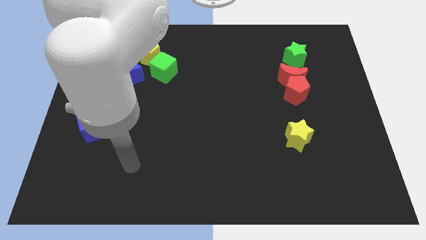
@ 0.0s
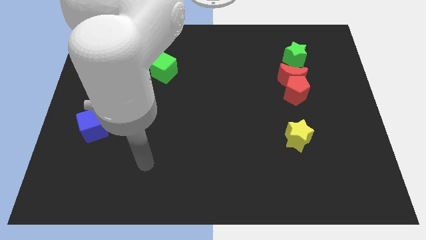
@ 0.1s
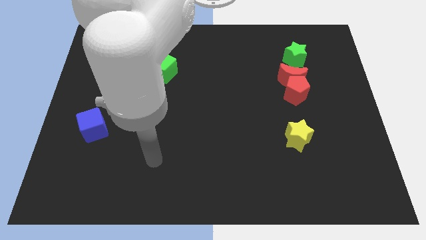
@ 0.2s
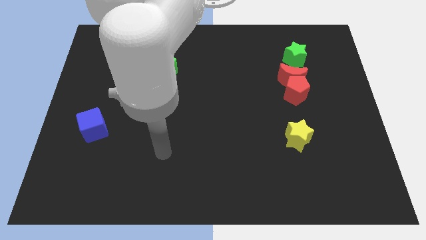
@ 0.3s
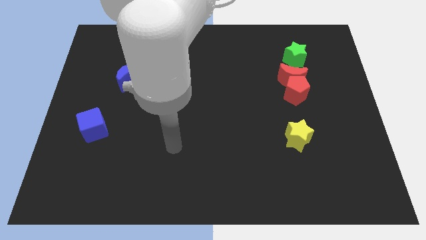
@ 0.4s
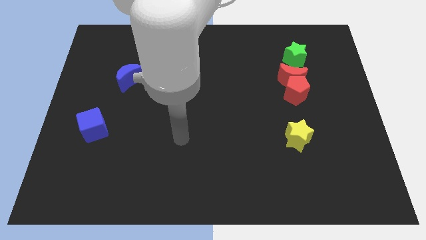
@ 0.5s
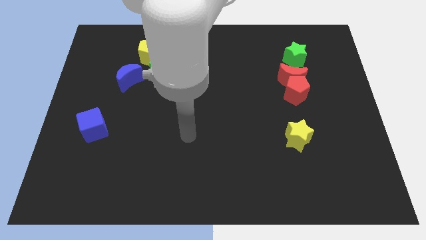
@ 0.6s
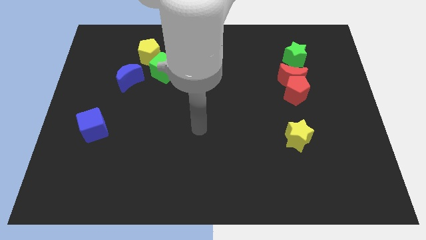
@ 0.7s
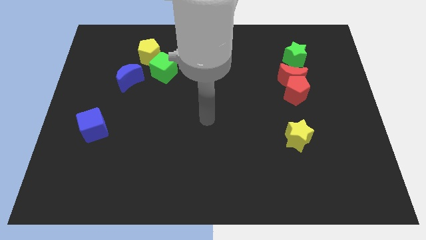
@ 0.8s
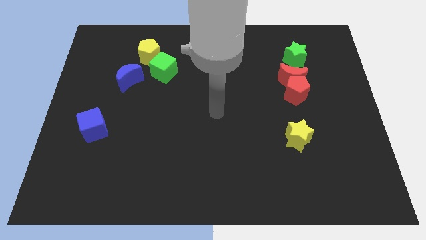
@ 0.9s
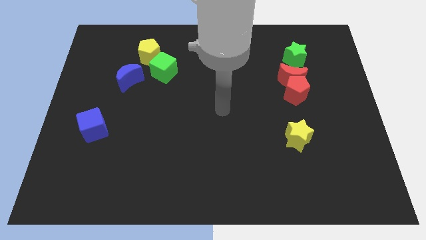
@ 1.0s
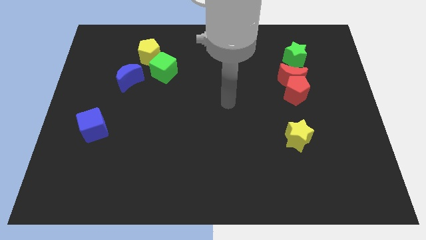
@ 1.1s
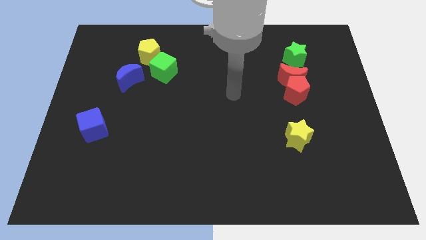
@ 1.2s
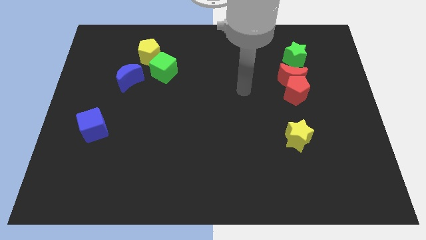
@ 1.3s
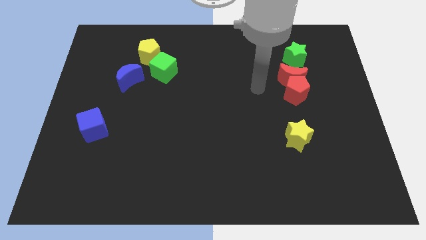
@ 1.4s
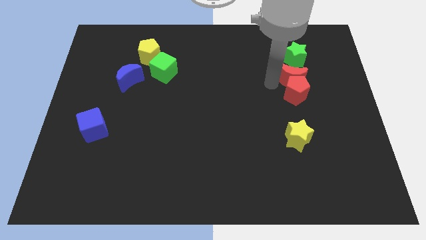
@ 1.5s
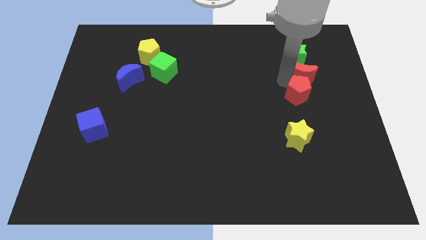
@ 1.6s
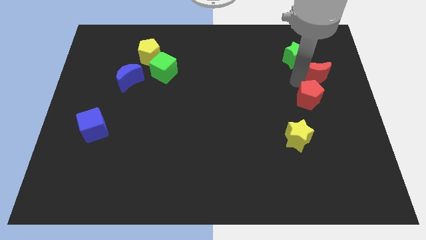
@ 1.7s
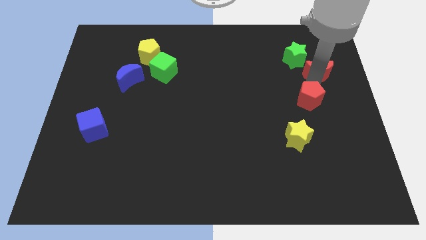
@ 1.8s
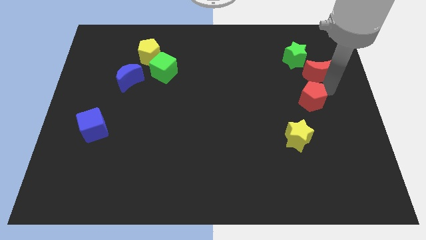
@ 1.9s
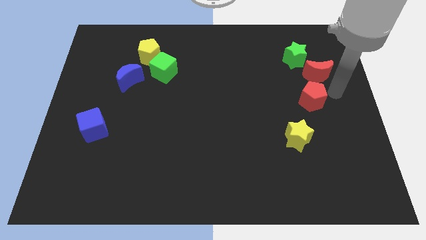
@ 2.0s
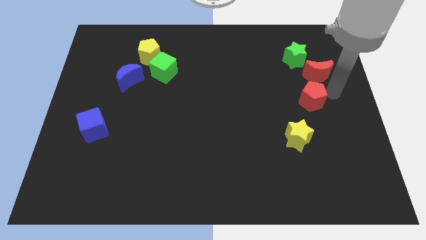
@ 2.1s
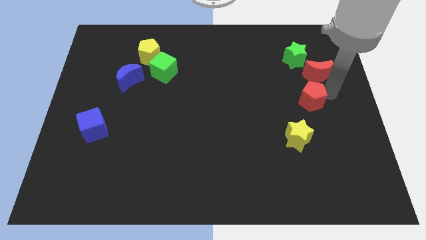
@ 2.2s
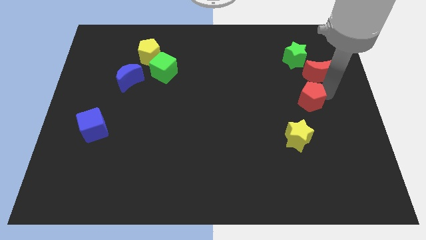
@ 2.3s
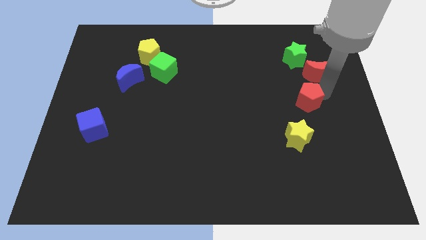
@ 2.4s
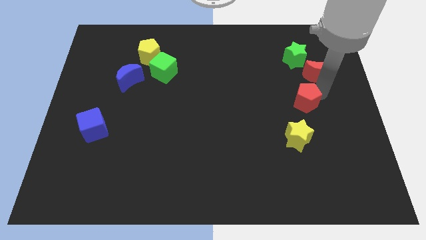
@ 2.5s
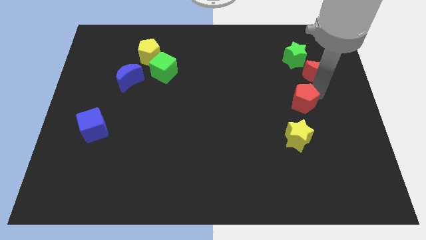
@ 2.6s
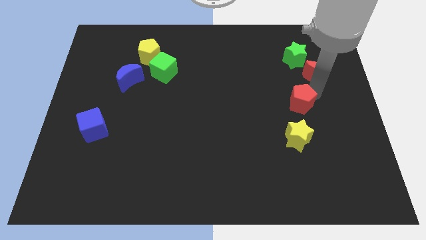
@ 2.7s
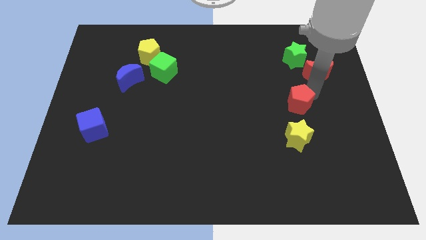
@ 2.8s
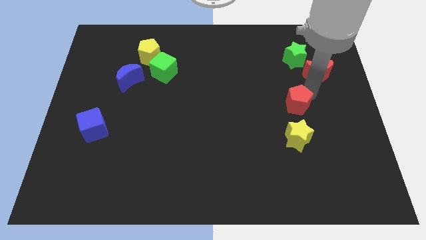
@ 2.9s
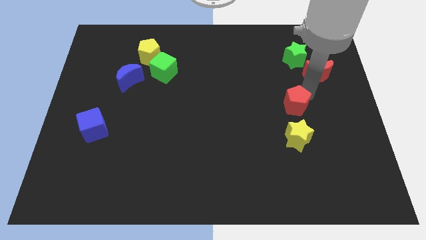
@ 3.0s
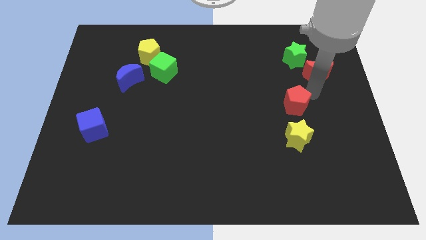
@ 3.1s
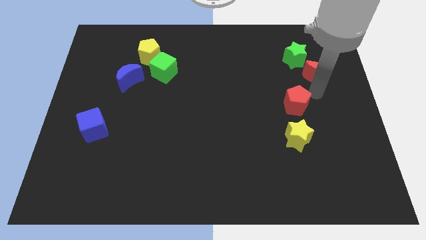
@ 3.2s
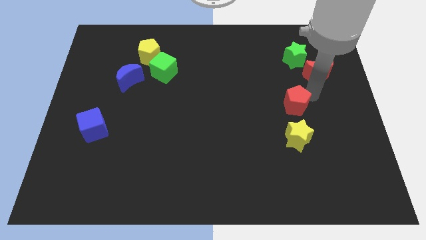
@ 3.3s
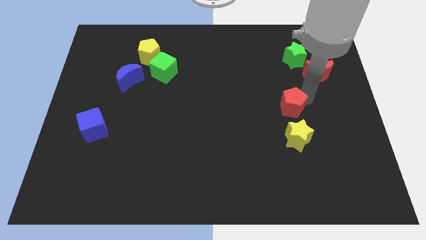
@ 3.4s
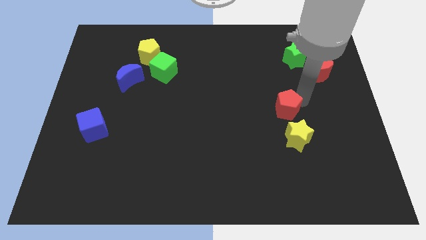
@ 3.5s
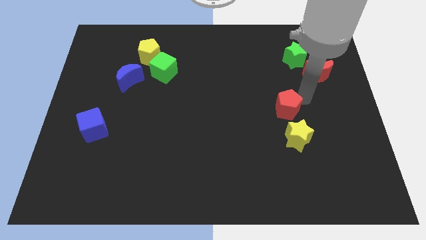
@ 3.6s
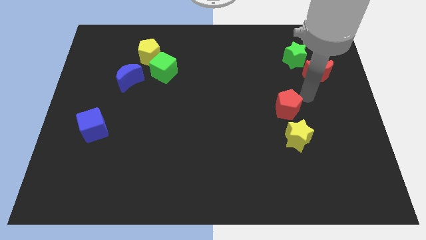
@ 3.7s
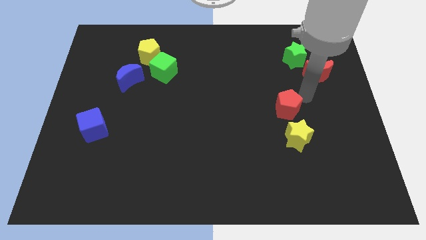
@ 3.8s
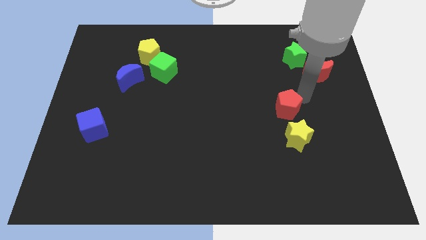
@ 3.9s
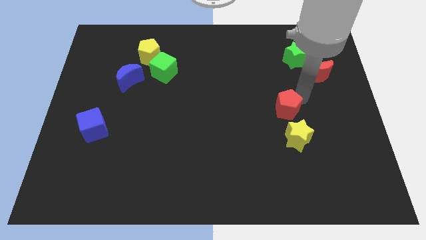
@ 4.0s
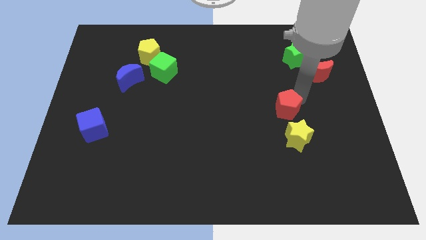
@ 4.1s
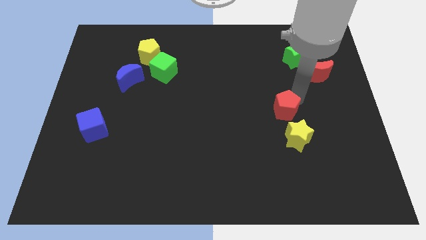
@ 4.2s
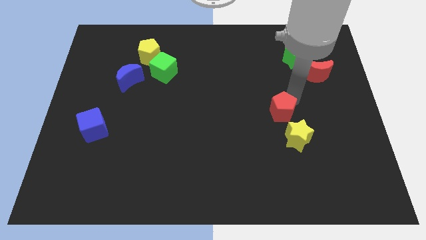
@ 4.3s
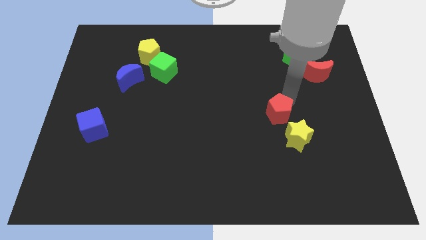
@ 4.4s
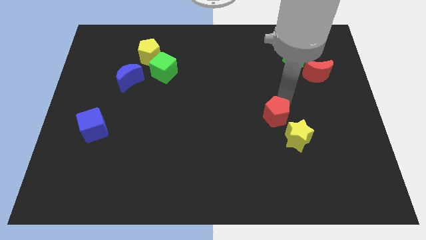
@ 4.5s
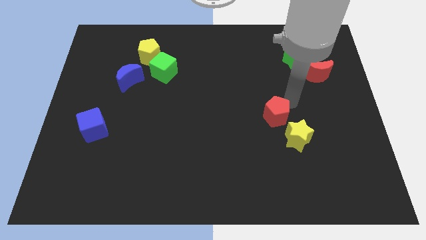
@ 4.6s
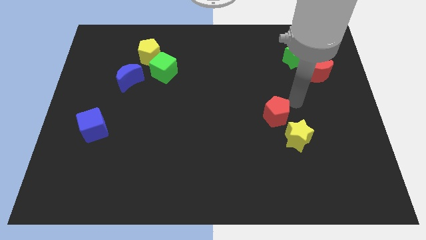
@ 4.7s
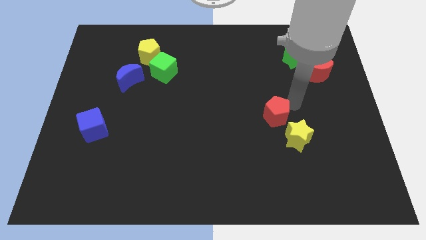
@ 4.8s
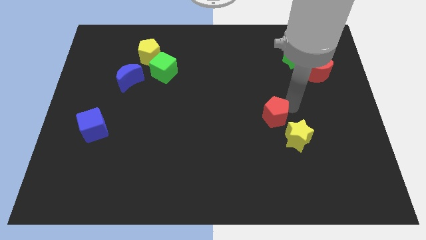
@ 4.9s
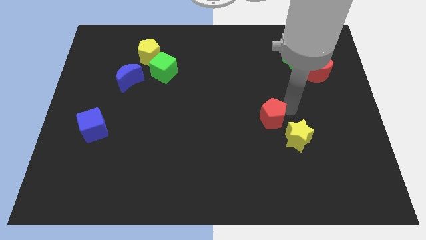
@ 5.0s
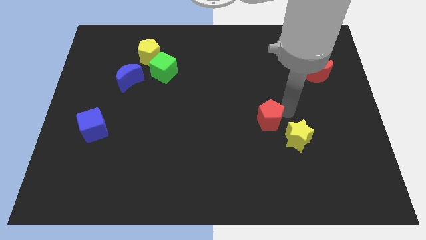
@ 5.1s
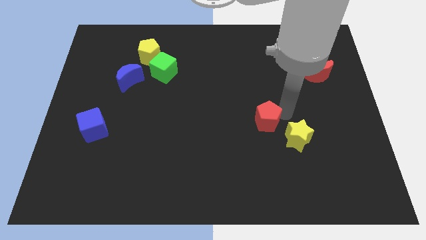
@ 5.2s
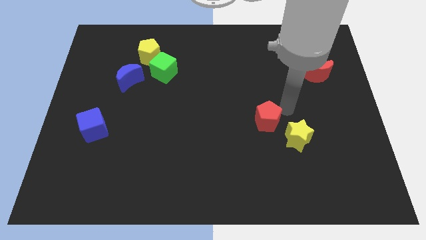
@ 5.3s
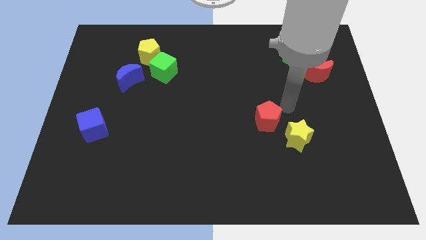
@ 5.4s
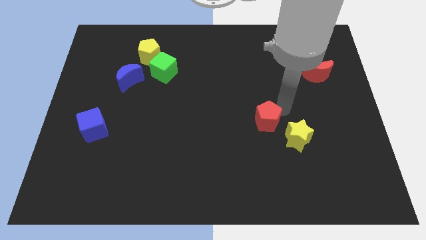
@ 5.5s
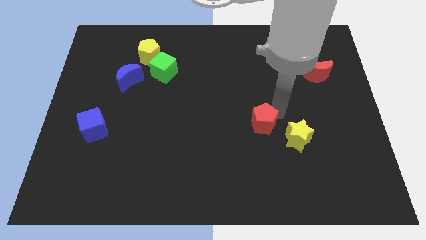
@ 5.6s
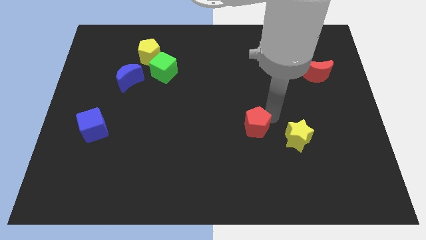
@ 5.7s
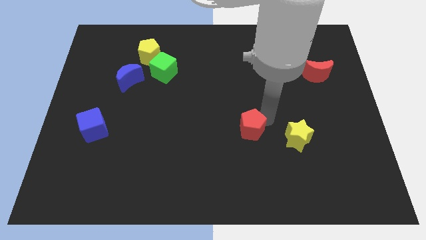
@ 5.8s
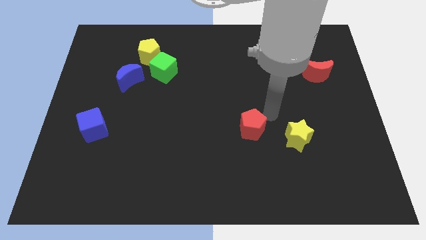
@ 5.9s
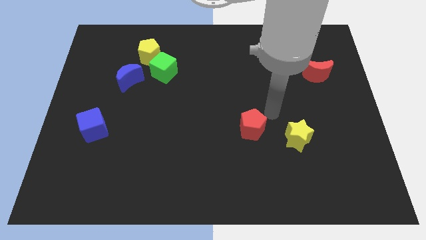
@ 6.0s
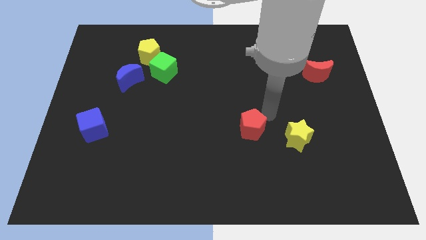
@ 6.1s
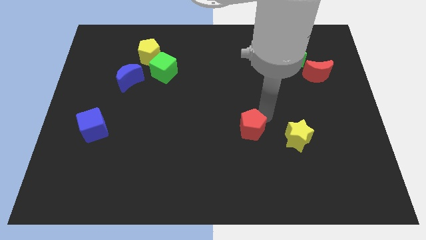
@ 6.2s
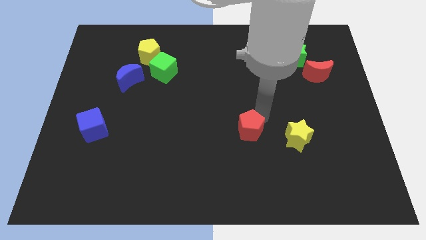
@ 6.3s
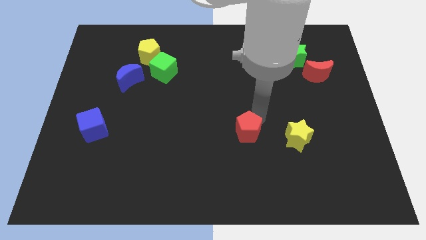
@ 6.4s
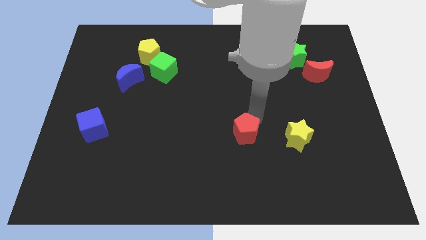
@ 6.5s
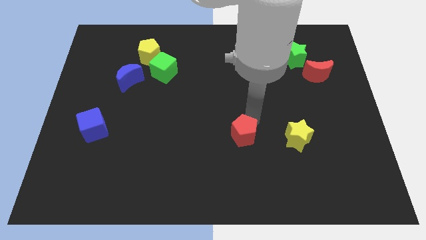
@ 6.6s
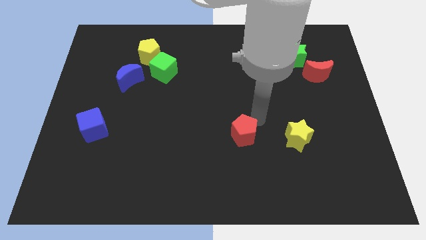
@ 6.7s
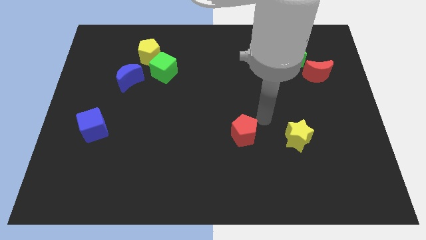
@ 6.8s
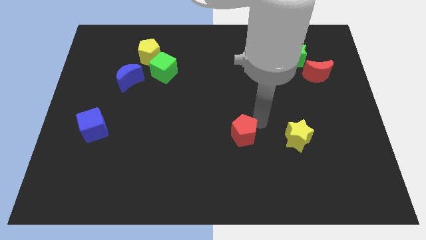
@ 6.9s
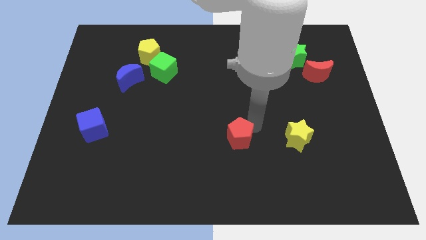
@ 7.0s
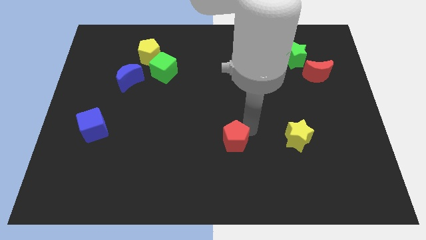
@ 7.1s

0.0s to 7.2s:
slide the red pentagon down and left diagonally

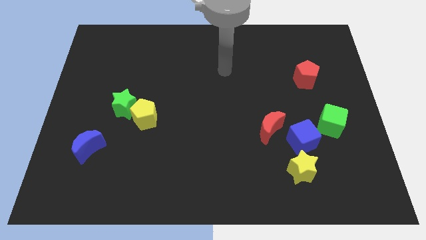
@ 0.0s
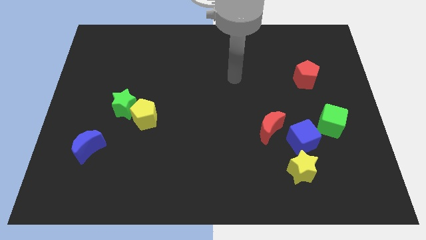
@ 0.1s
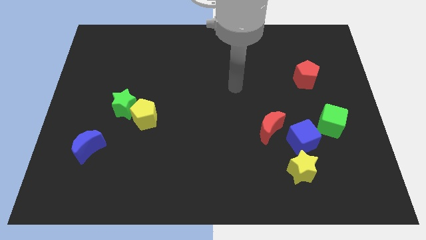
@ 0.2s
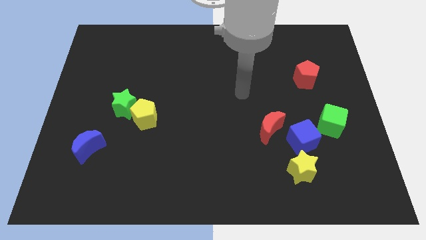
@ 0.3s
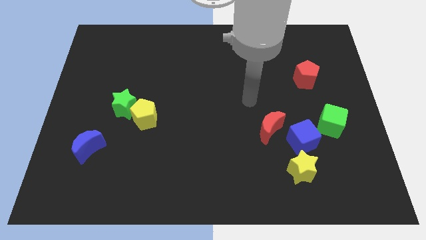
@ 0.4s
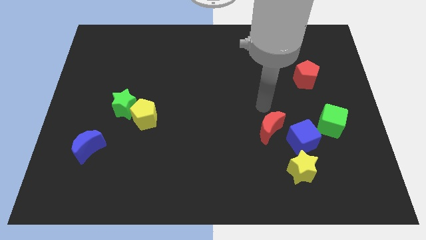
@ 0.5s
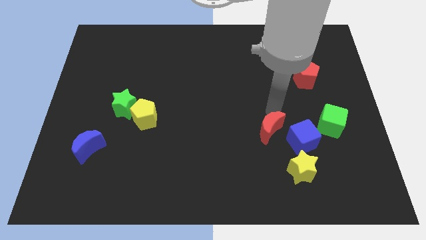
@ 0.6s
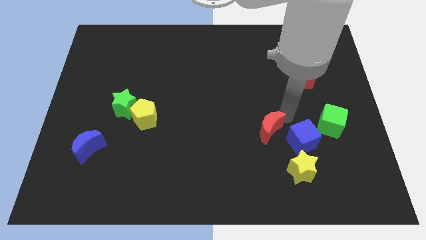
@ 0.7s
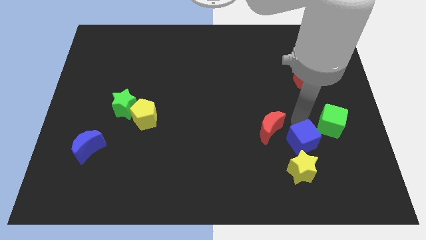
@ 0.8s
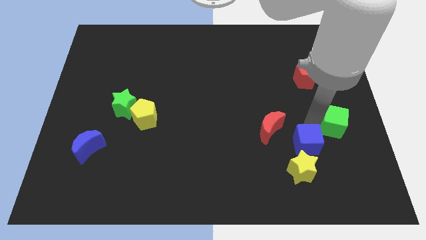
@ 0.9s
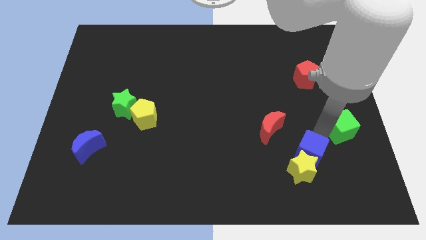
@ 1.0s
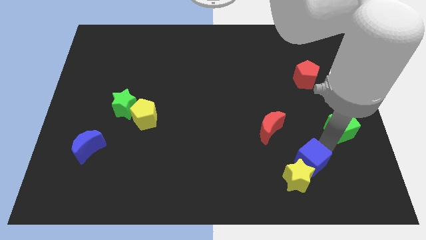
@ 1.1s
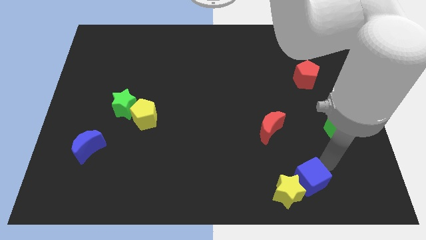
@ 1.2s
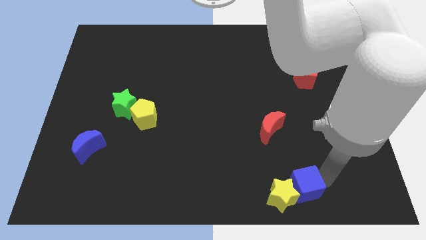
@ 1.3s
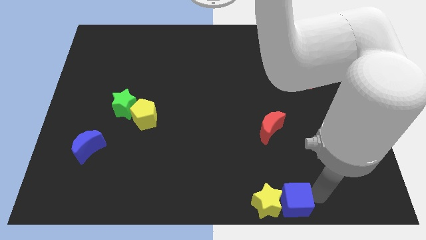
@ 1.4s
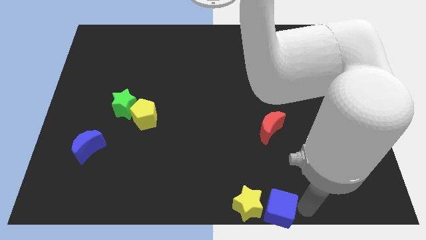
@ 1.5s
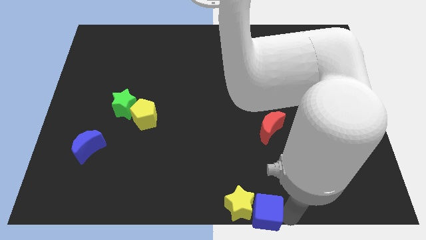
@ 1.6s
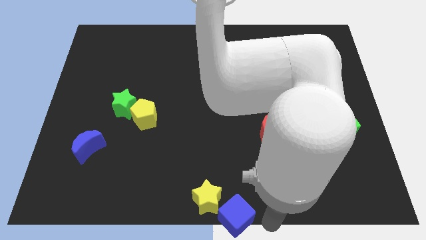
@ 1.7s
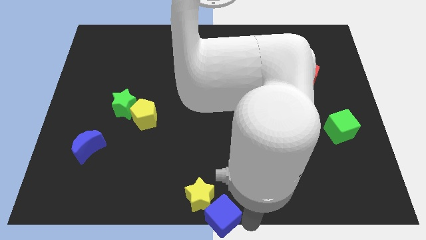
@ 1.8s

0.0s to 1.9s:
move the yellow star to the left
